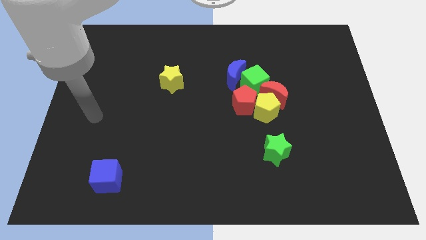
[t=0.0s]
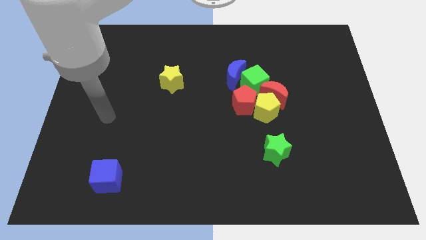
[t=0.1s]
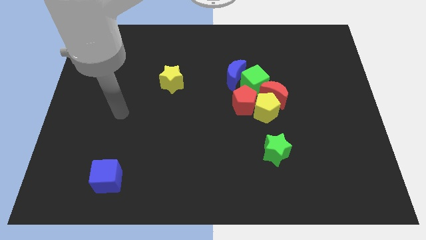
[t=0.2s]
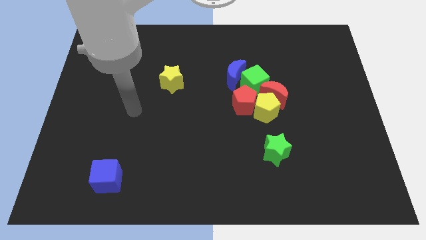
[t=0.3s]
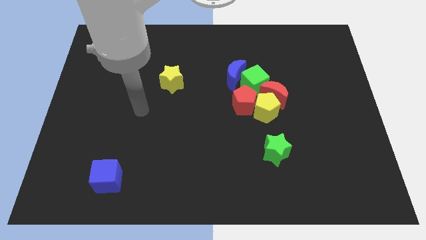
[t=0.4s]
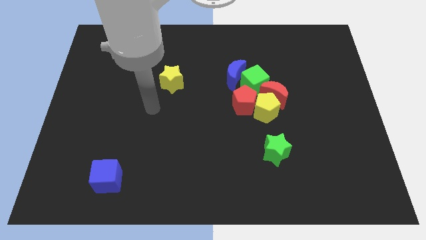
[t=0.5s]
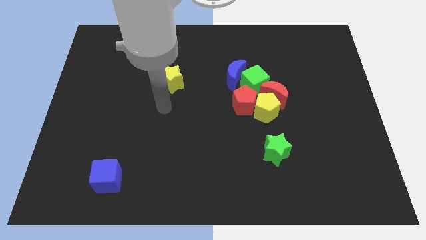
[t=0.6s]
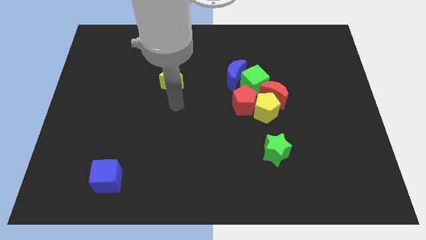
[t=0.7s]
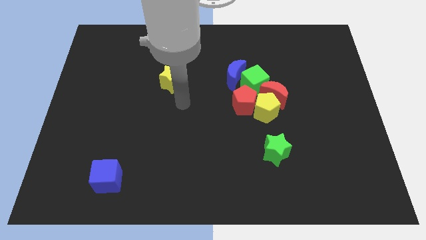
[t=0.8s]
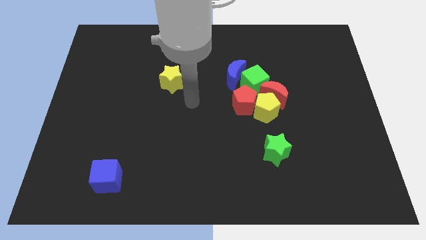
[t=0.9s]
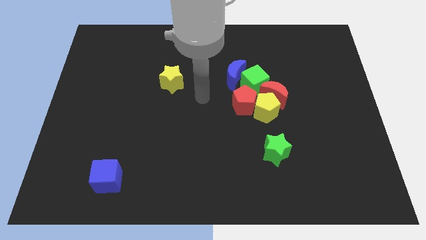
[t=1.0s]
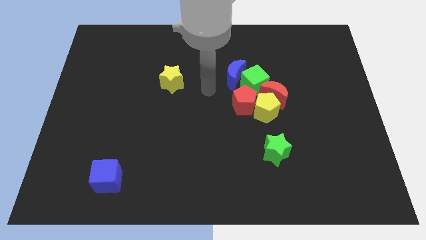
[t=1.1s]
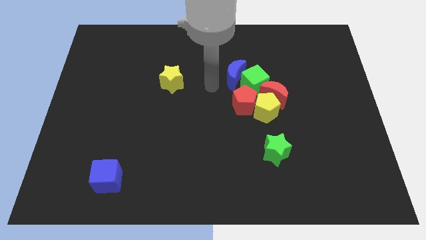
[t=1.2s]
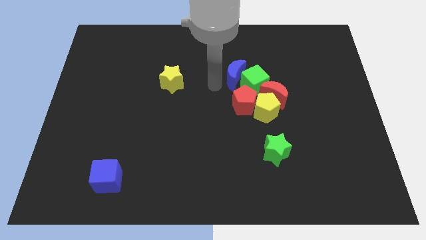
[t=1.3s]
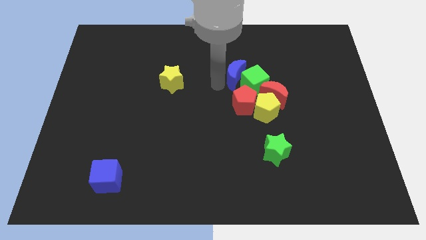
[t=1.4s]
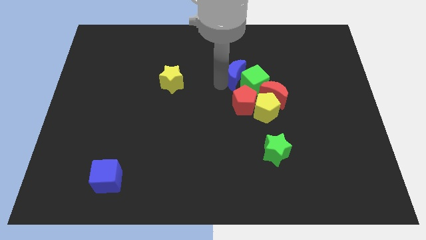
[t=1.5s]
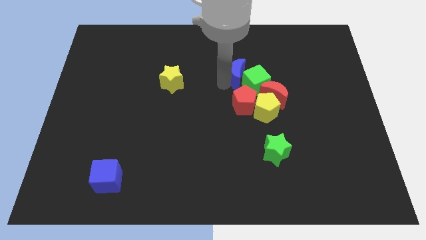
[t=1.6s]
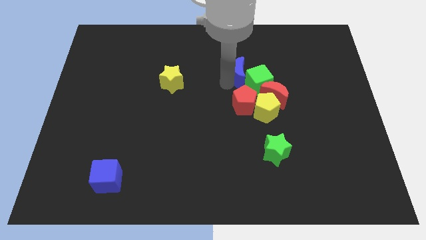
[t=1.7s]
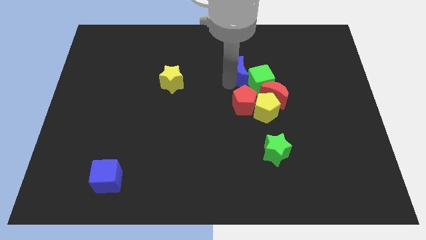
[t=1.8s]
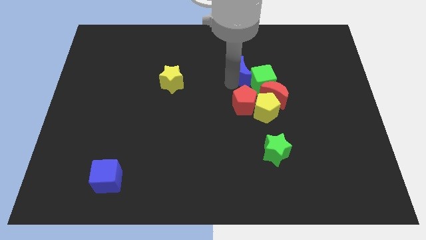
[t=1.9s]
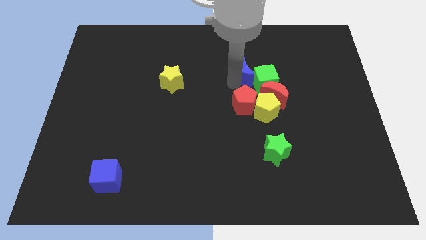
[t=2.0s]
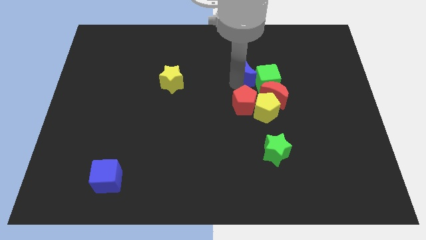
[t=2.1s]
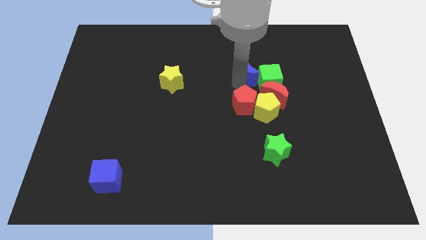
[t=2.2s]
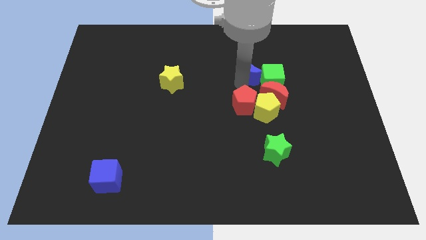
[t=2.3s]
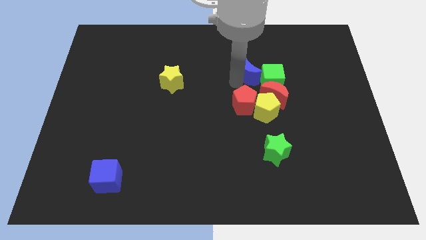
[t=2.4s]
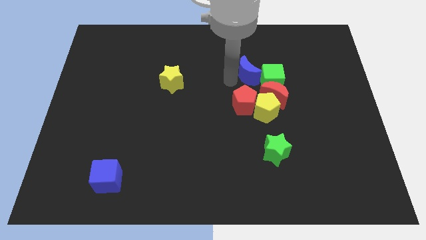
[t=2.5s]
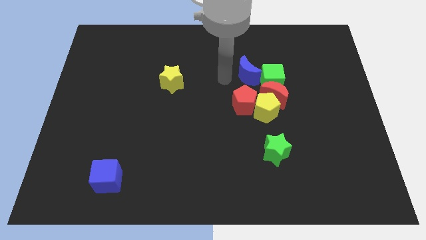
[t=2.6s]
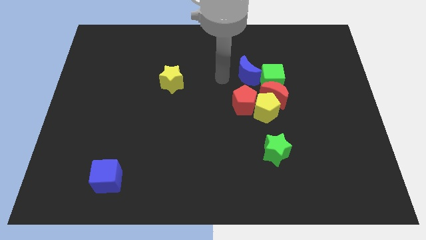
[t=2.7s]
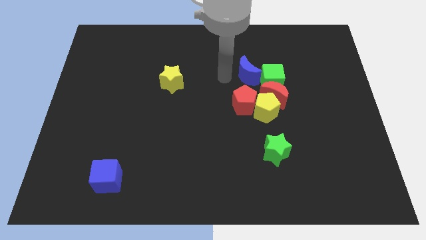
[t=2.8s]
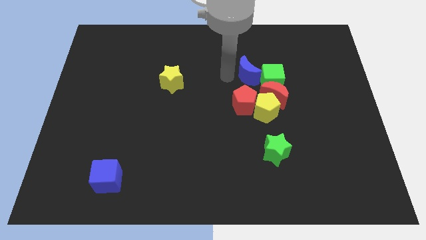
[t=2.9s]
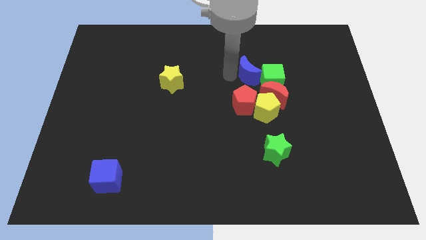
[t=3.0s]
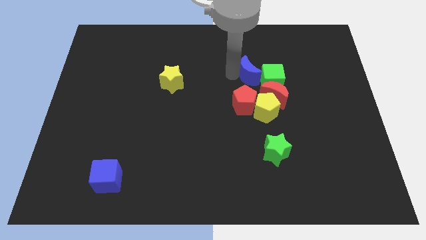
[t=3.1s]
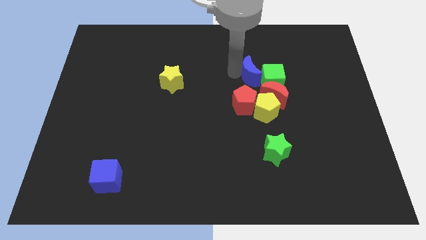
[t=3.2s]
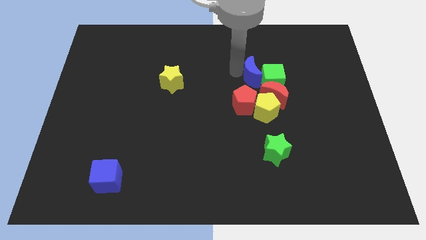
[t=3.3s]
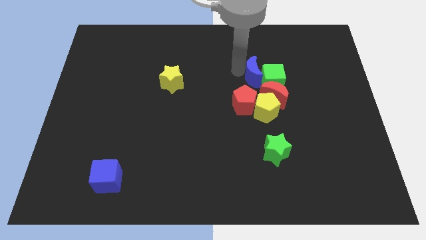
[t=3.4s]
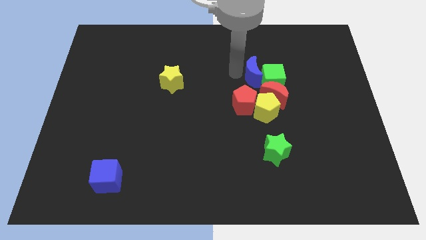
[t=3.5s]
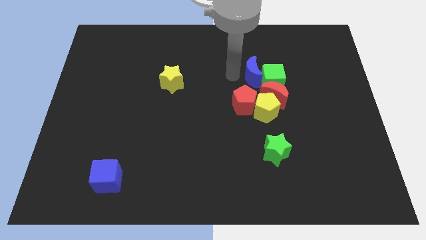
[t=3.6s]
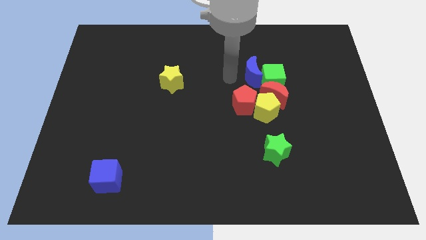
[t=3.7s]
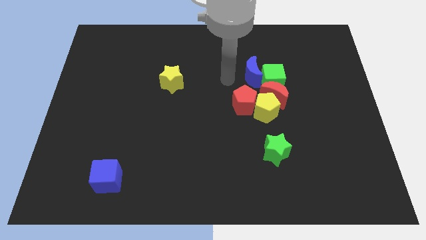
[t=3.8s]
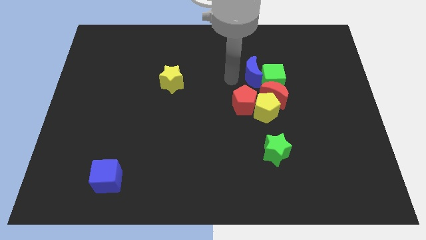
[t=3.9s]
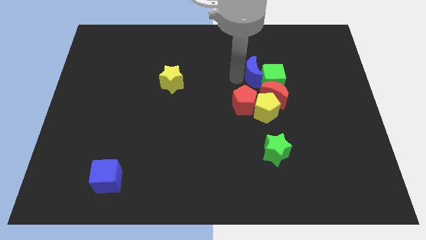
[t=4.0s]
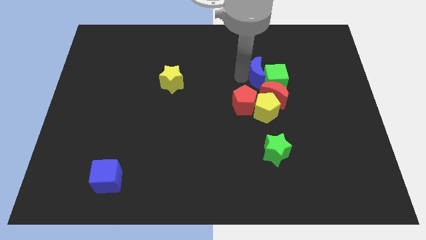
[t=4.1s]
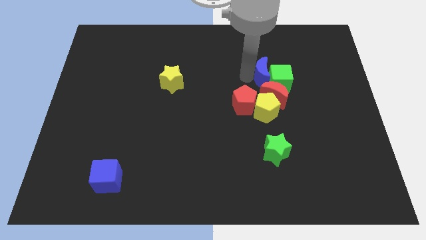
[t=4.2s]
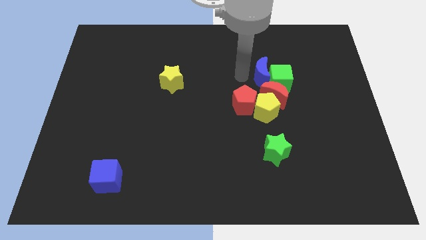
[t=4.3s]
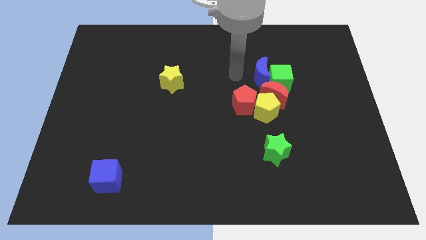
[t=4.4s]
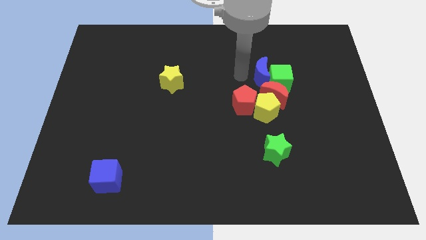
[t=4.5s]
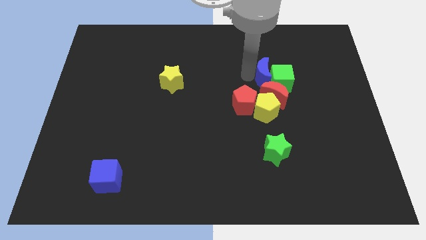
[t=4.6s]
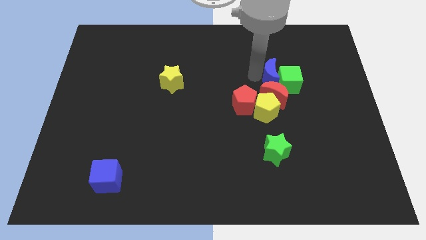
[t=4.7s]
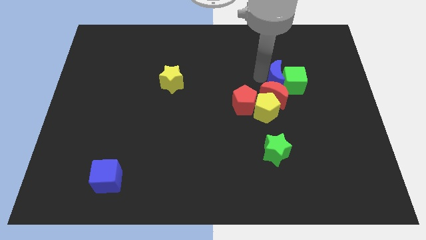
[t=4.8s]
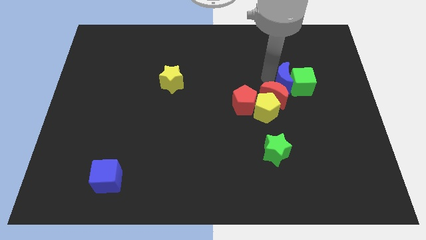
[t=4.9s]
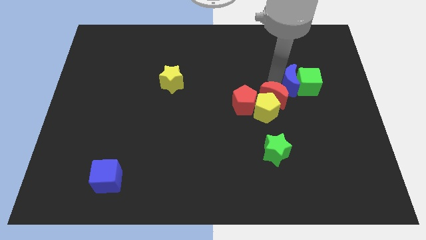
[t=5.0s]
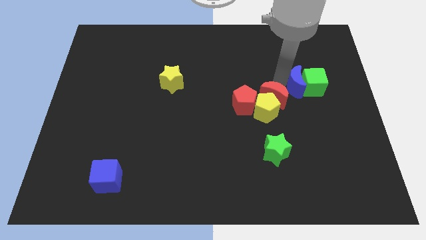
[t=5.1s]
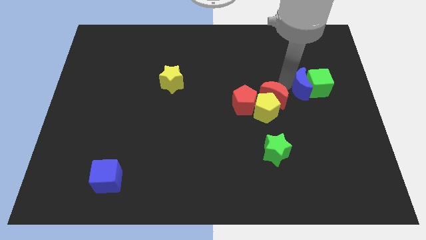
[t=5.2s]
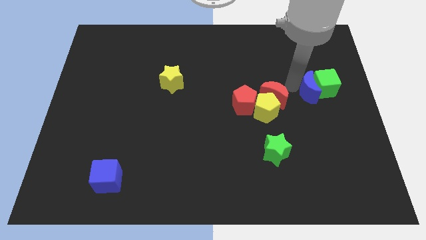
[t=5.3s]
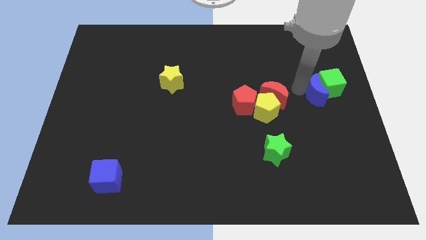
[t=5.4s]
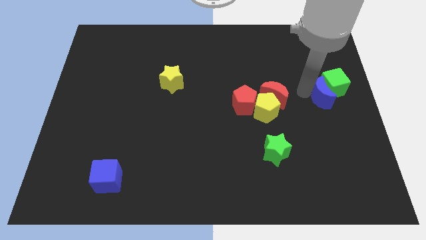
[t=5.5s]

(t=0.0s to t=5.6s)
push the blue moon to the center right

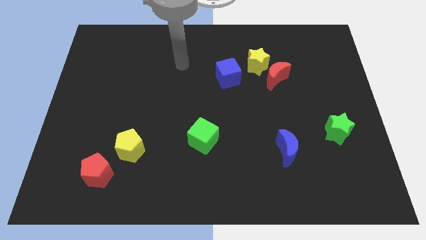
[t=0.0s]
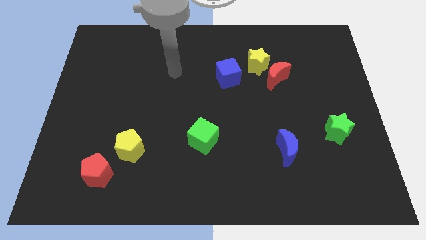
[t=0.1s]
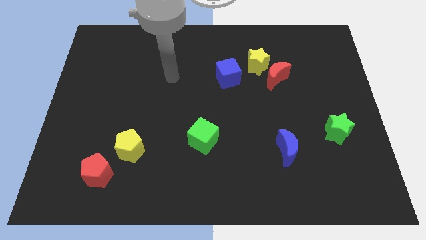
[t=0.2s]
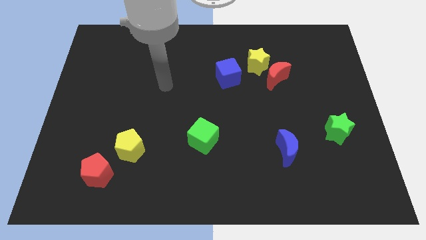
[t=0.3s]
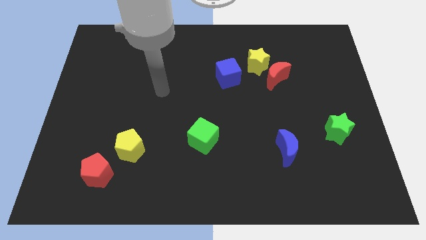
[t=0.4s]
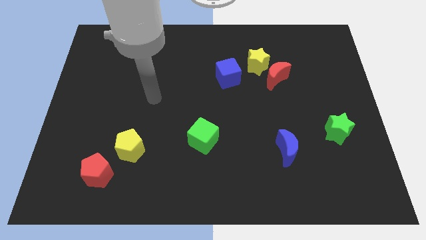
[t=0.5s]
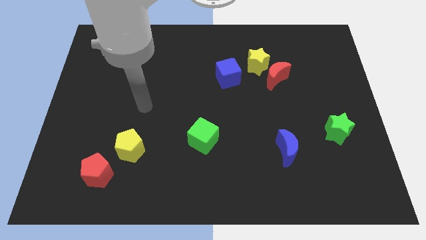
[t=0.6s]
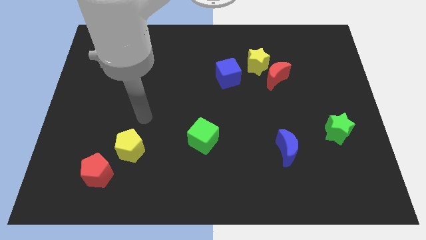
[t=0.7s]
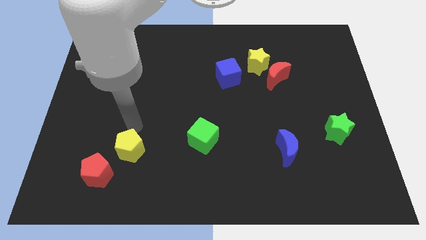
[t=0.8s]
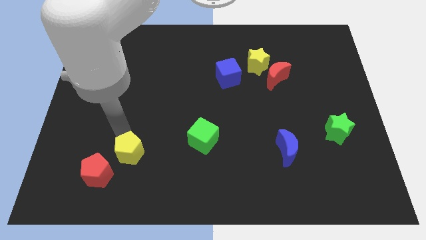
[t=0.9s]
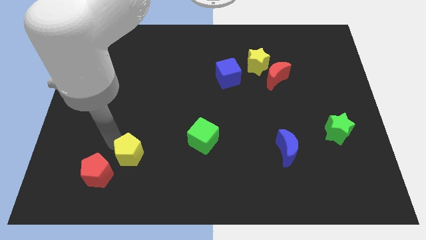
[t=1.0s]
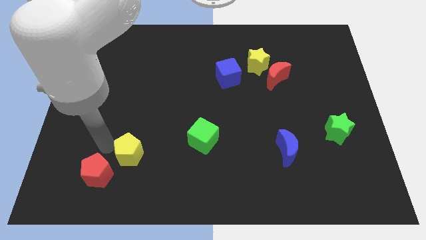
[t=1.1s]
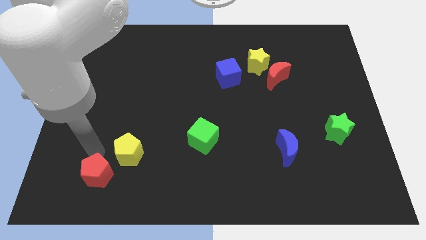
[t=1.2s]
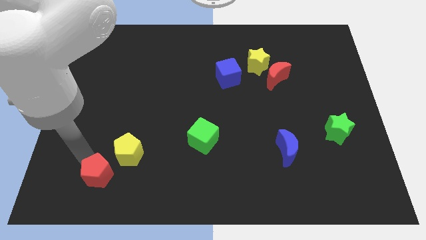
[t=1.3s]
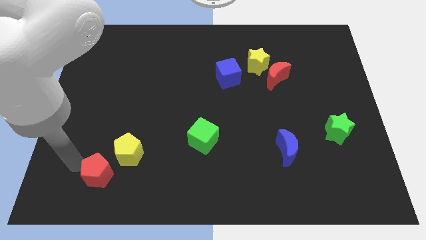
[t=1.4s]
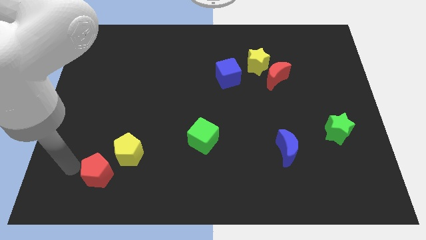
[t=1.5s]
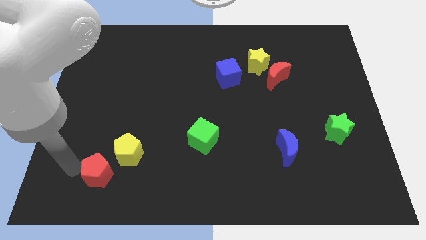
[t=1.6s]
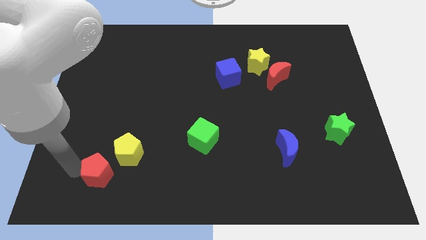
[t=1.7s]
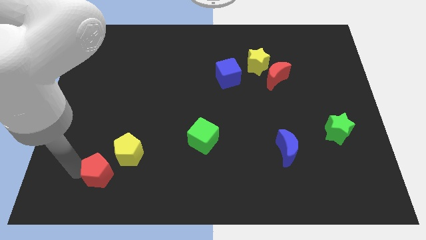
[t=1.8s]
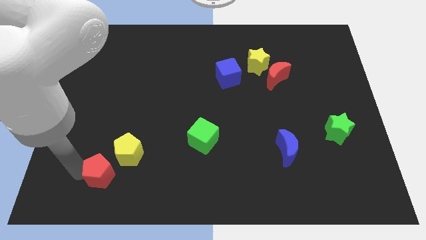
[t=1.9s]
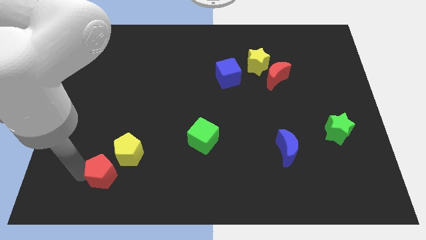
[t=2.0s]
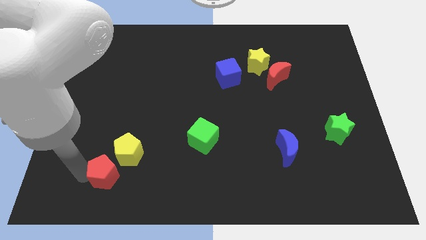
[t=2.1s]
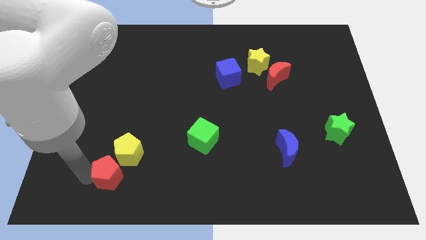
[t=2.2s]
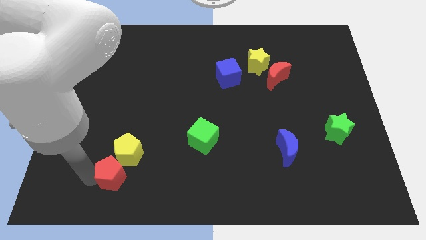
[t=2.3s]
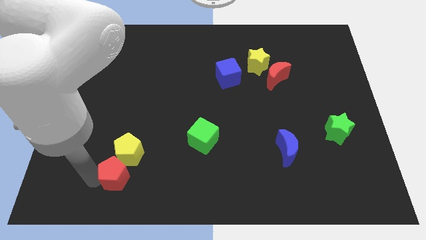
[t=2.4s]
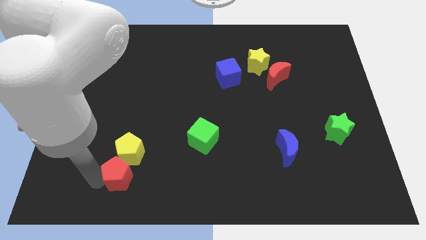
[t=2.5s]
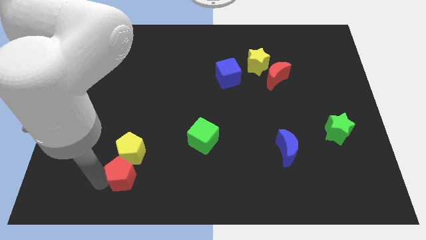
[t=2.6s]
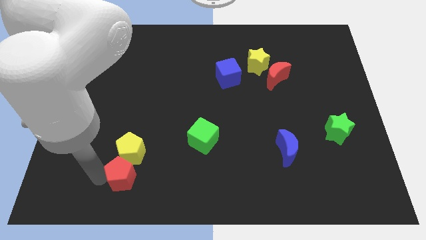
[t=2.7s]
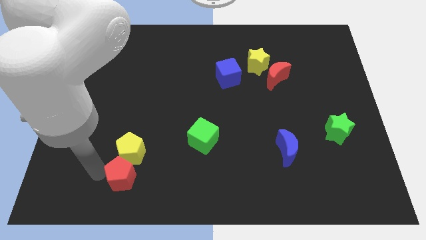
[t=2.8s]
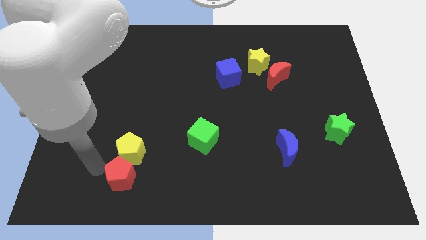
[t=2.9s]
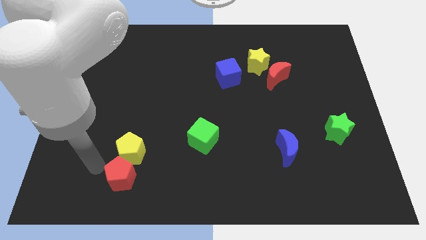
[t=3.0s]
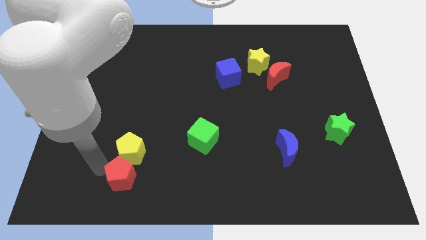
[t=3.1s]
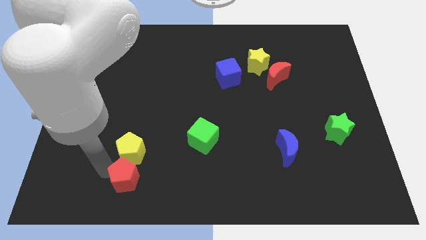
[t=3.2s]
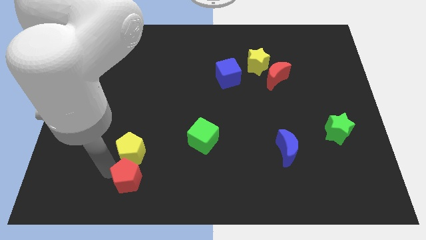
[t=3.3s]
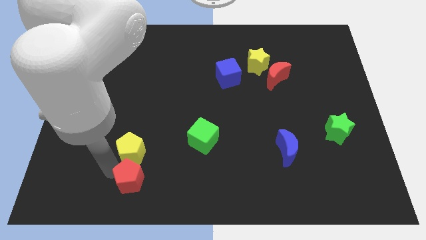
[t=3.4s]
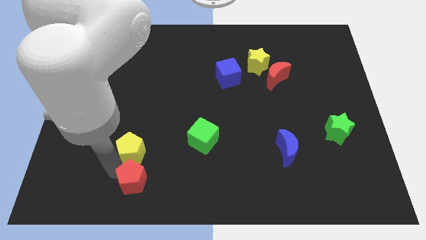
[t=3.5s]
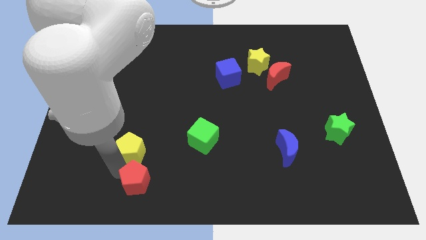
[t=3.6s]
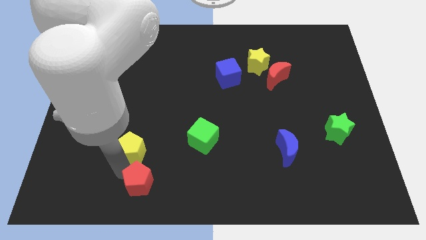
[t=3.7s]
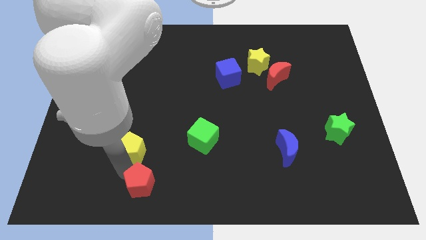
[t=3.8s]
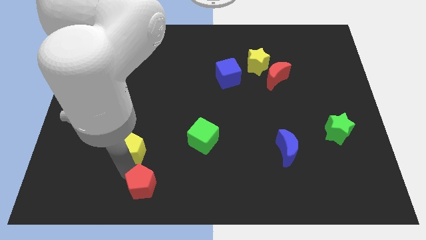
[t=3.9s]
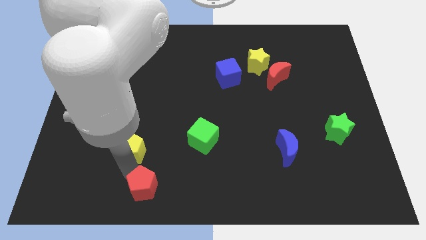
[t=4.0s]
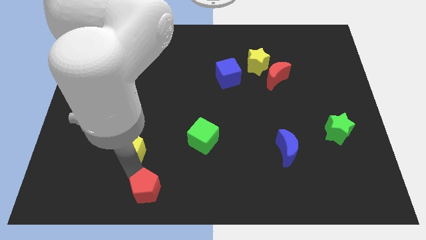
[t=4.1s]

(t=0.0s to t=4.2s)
move the red pentagon to the bottom side
